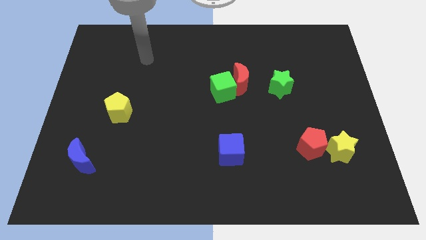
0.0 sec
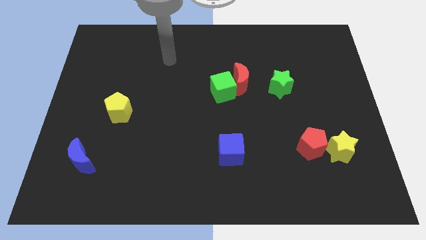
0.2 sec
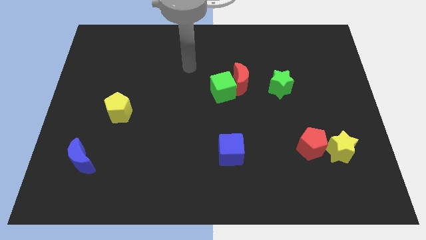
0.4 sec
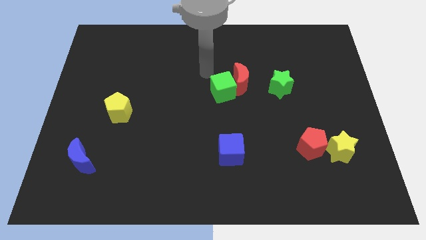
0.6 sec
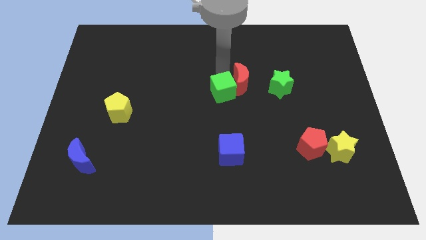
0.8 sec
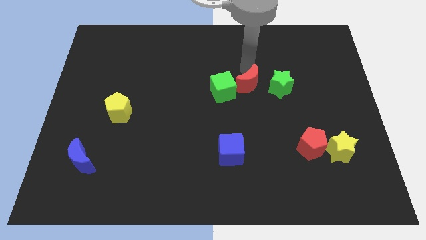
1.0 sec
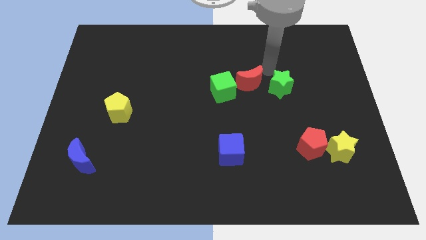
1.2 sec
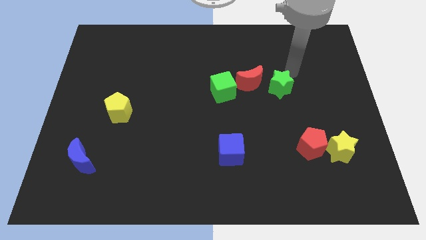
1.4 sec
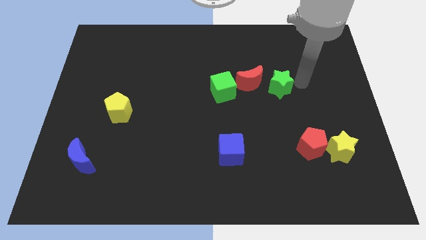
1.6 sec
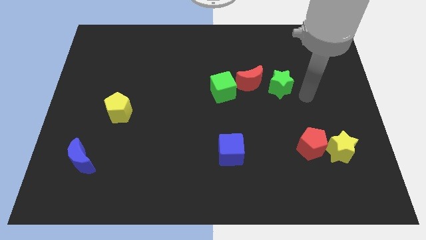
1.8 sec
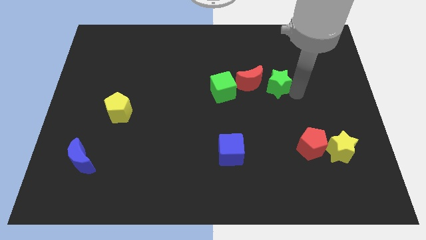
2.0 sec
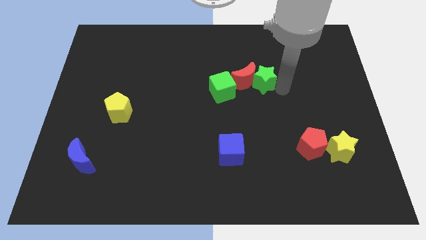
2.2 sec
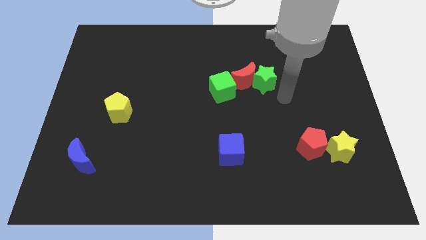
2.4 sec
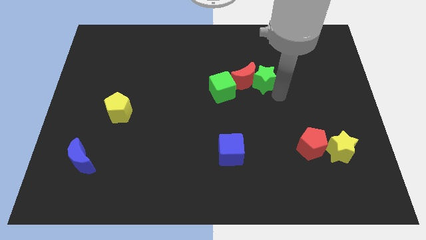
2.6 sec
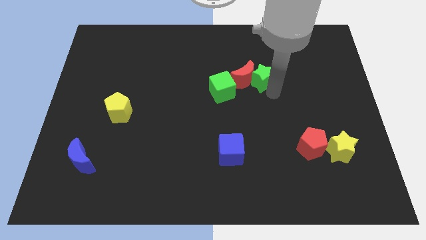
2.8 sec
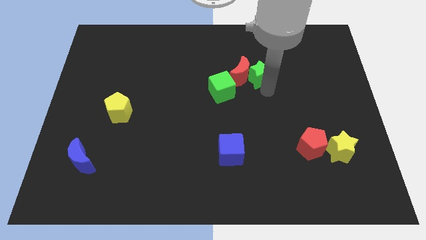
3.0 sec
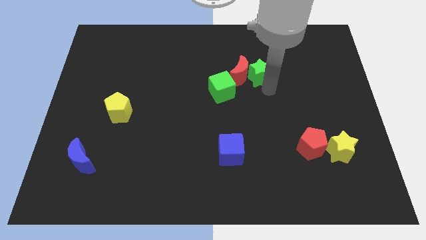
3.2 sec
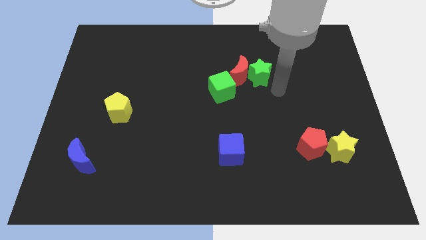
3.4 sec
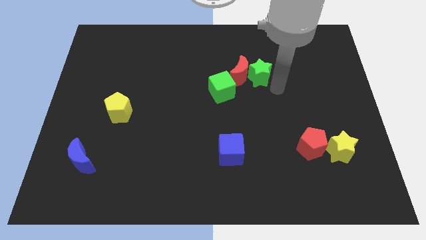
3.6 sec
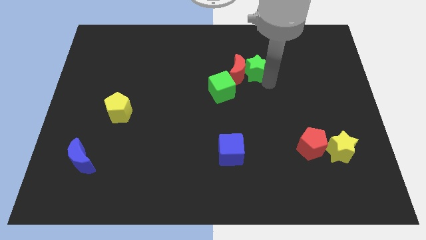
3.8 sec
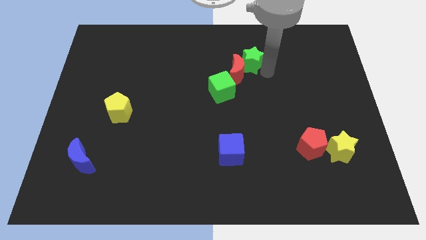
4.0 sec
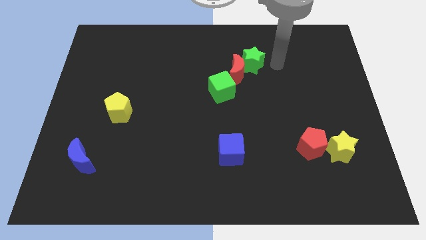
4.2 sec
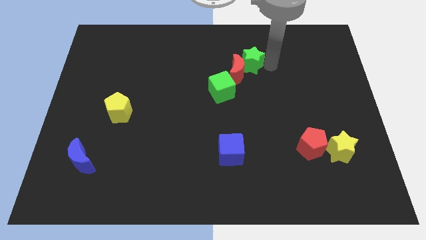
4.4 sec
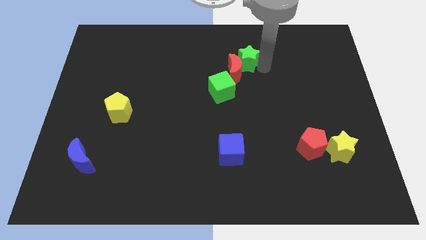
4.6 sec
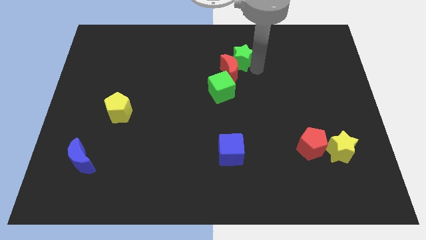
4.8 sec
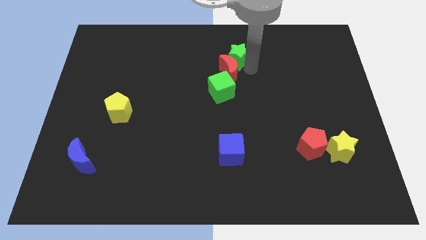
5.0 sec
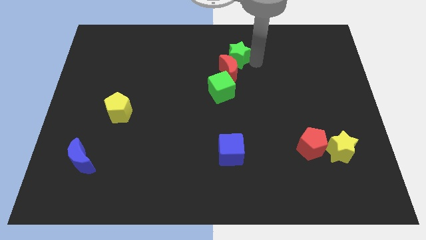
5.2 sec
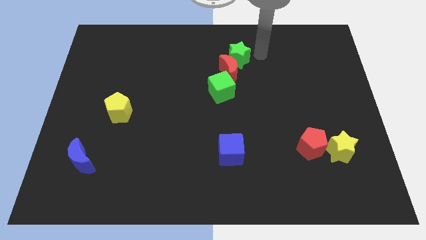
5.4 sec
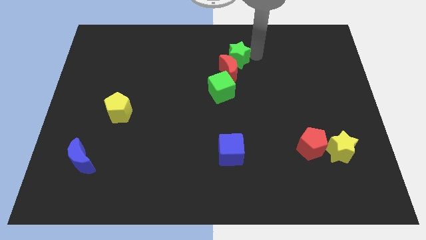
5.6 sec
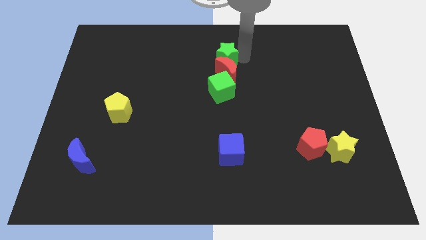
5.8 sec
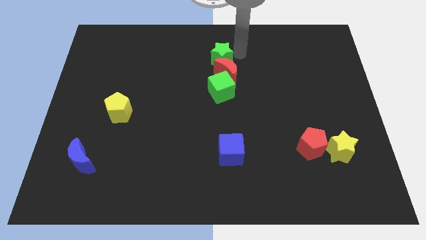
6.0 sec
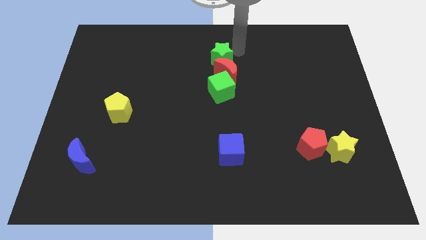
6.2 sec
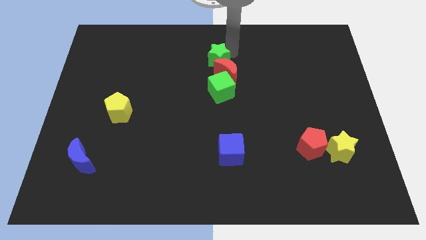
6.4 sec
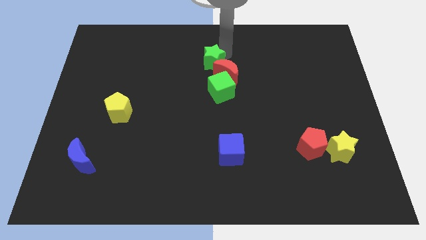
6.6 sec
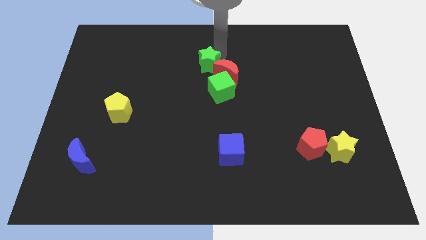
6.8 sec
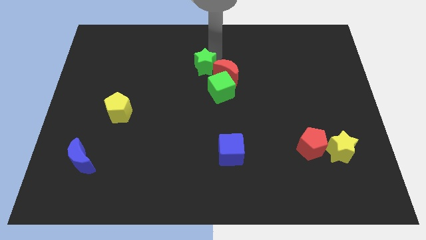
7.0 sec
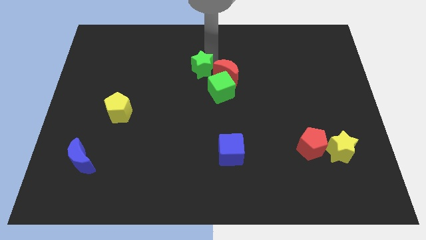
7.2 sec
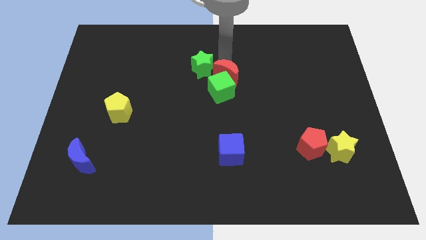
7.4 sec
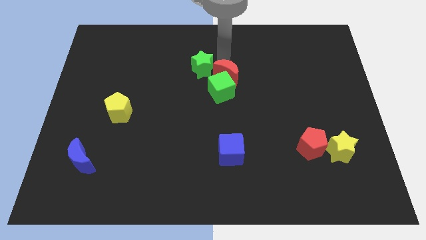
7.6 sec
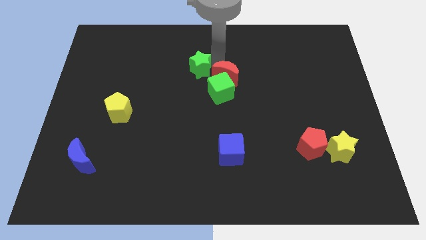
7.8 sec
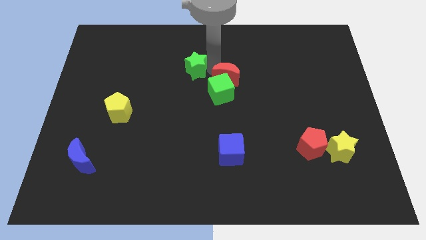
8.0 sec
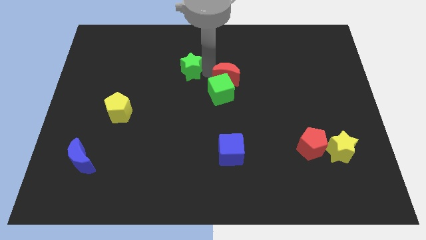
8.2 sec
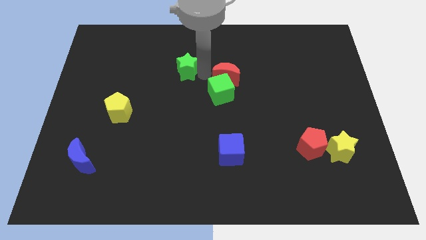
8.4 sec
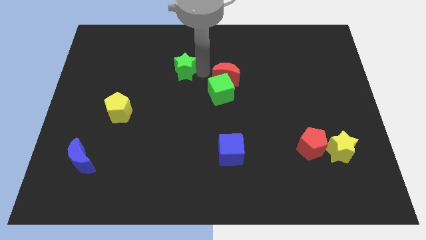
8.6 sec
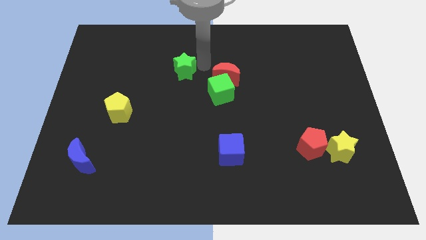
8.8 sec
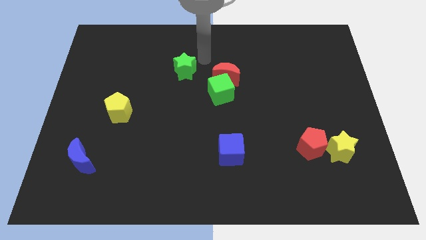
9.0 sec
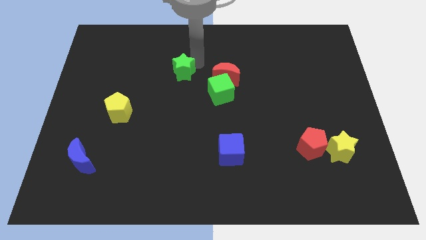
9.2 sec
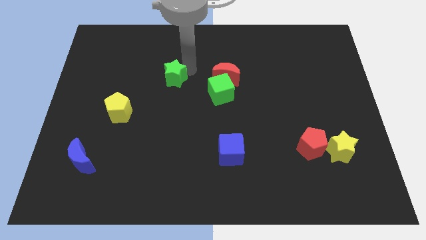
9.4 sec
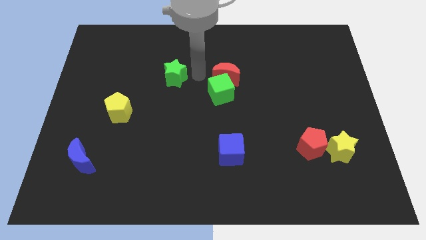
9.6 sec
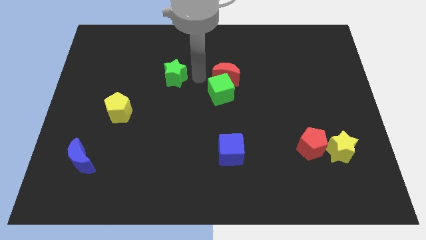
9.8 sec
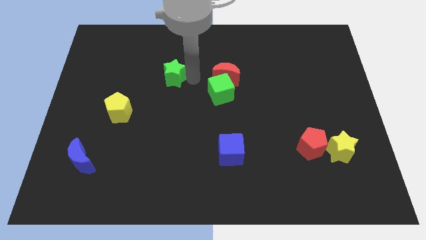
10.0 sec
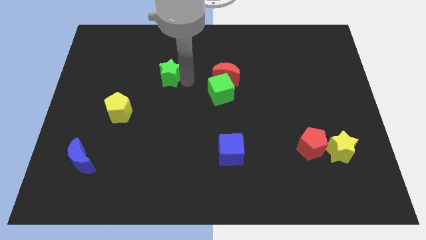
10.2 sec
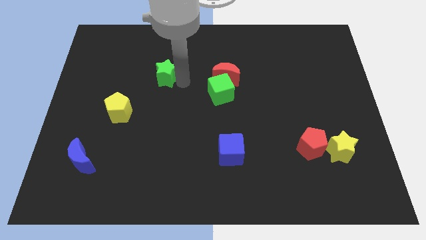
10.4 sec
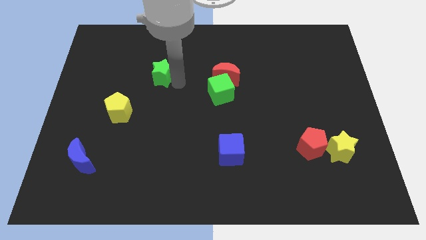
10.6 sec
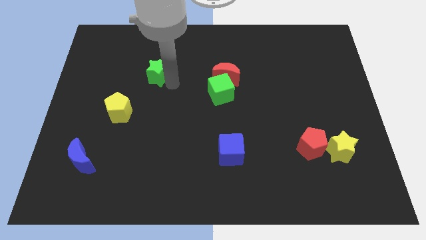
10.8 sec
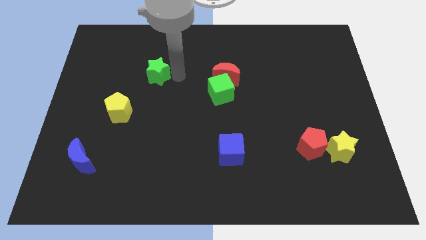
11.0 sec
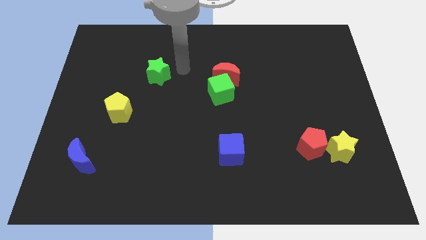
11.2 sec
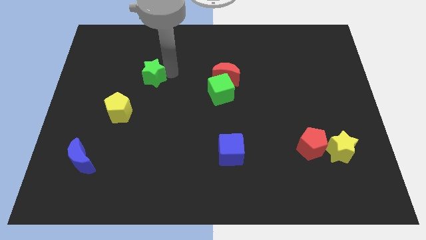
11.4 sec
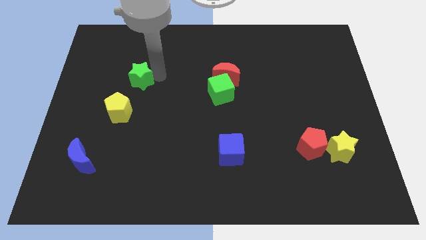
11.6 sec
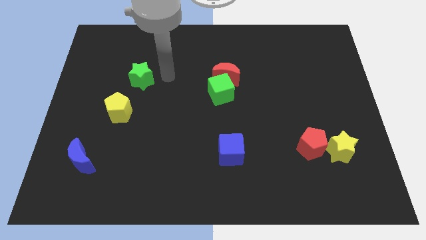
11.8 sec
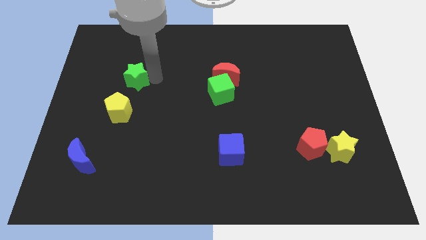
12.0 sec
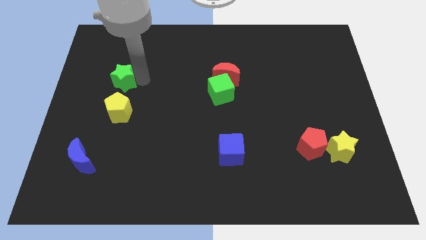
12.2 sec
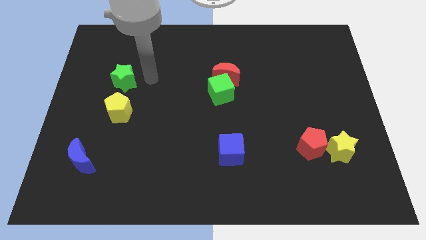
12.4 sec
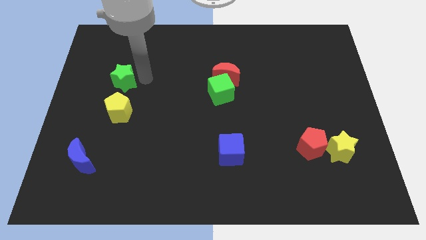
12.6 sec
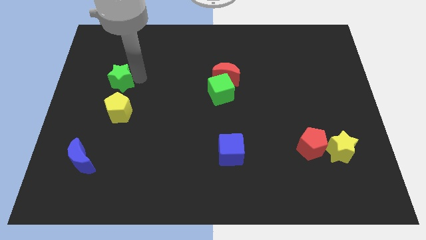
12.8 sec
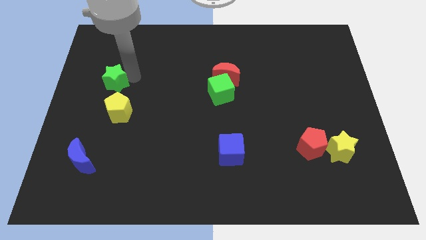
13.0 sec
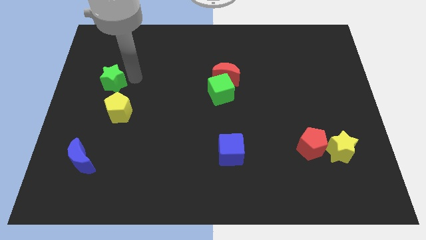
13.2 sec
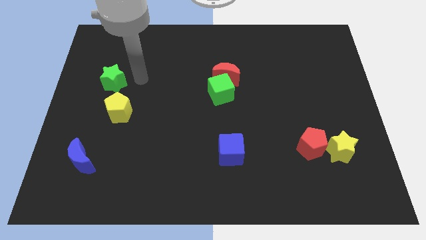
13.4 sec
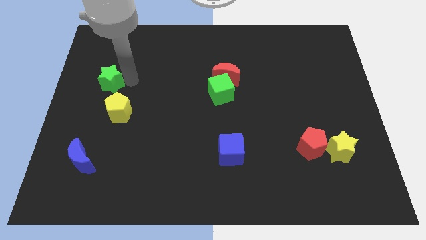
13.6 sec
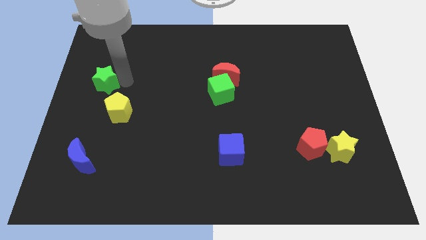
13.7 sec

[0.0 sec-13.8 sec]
slide the green star to the center left

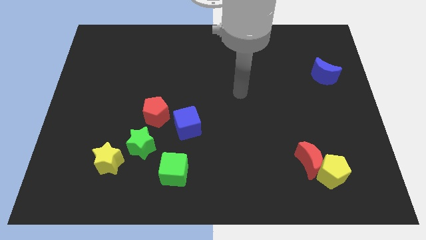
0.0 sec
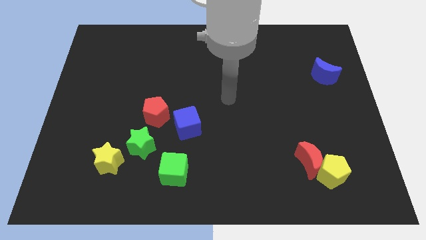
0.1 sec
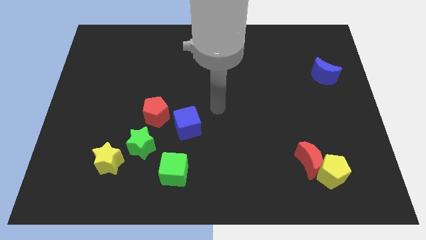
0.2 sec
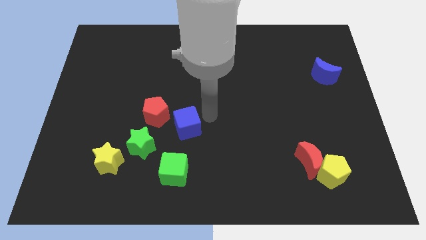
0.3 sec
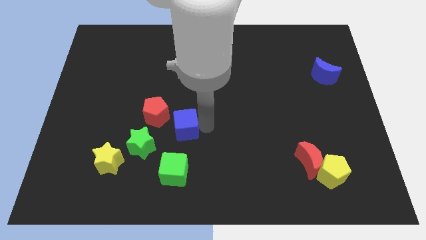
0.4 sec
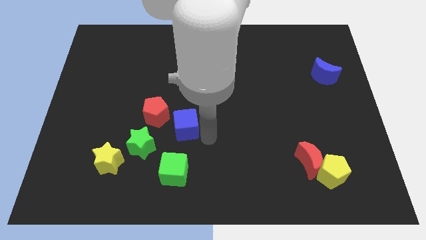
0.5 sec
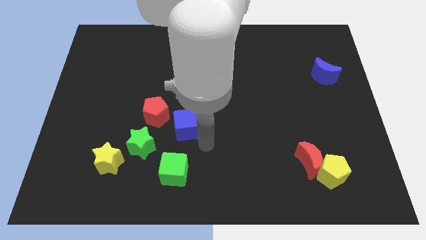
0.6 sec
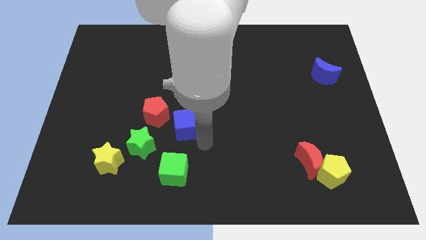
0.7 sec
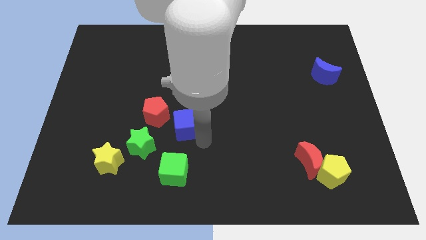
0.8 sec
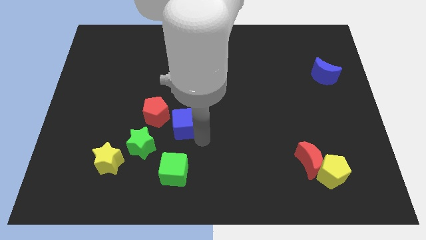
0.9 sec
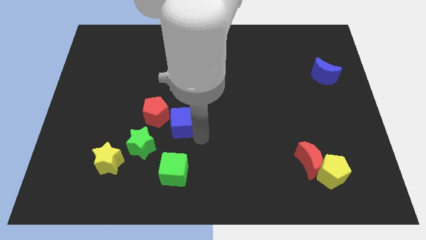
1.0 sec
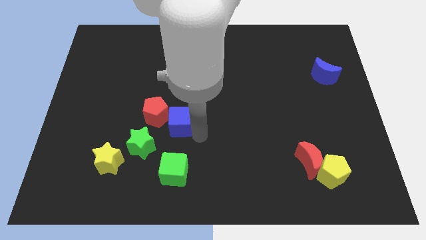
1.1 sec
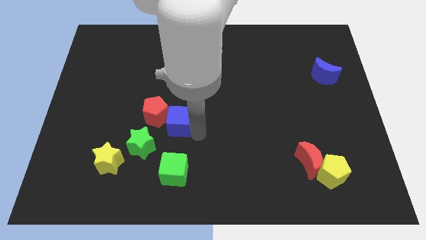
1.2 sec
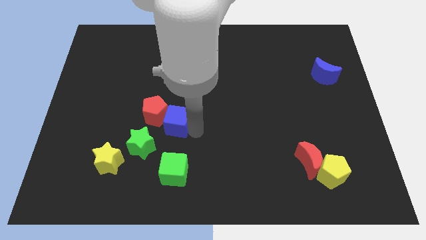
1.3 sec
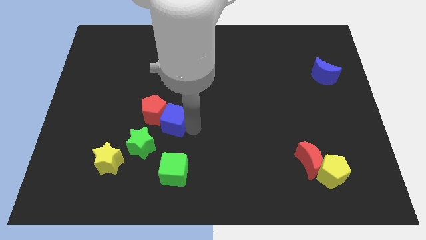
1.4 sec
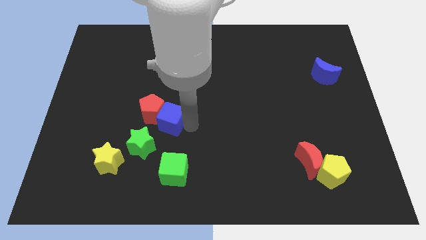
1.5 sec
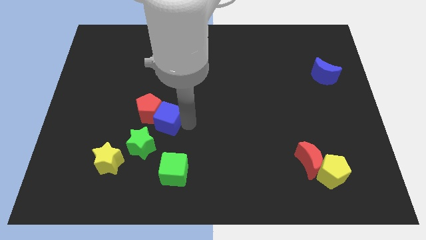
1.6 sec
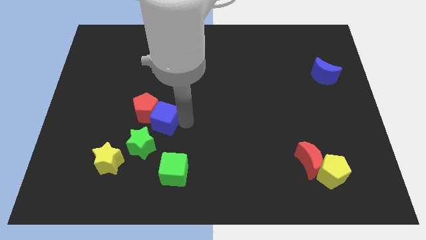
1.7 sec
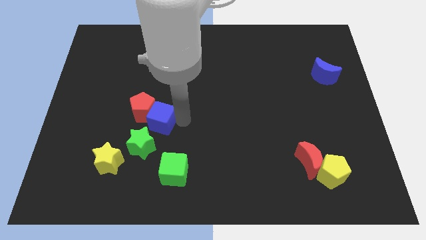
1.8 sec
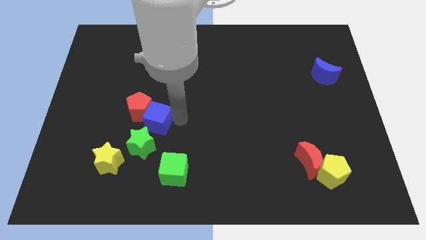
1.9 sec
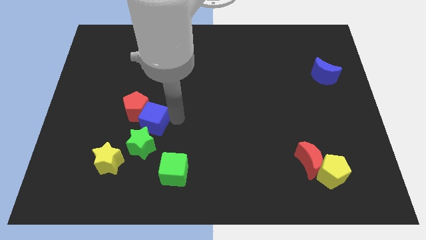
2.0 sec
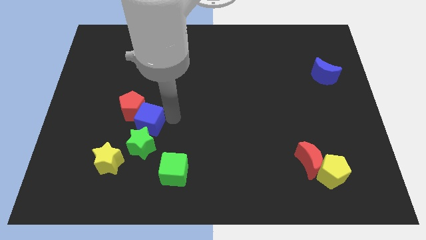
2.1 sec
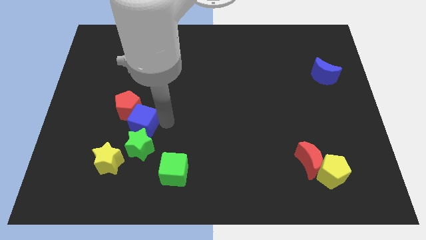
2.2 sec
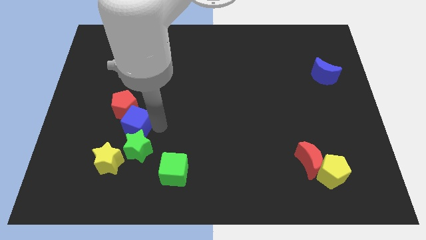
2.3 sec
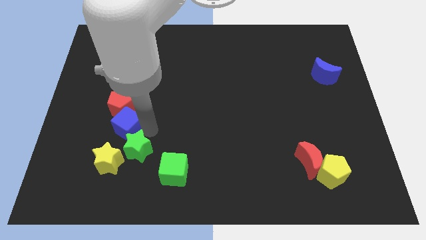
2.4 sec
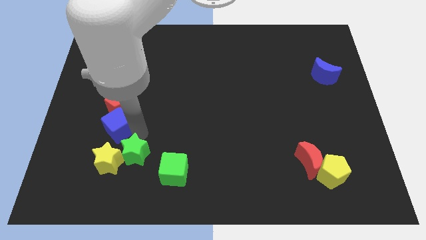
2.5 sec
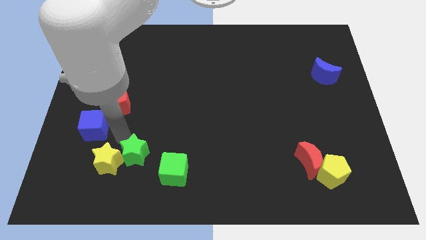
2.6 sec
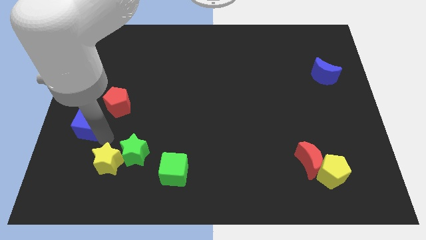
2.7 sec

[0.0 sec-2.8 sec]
push the blue cube to the left side of the board
